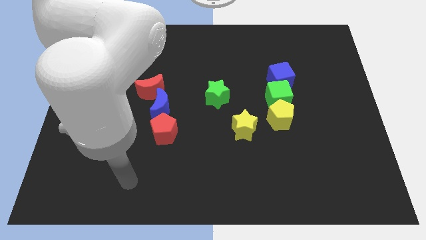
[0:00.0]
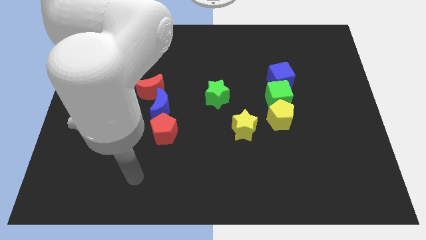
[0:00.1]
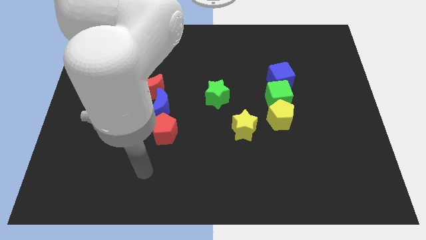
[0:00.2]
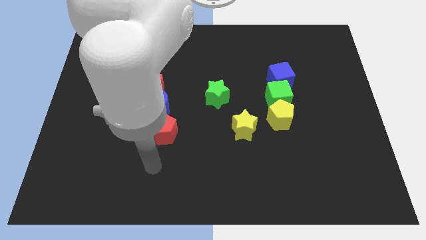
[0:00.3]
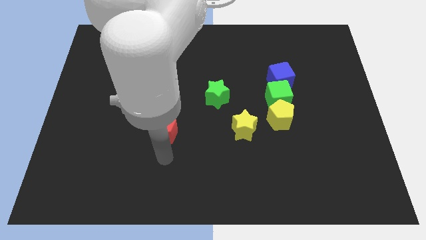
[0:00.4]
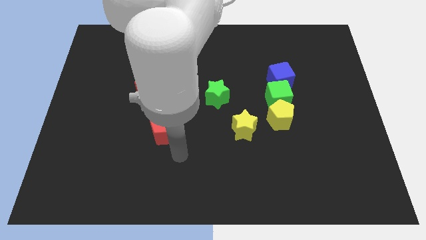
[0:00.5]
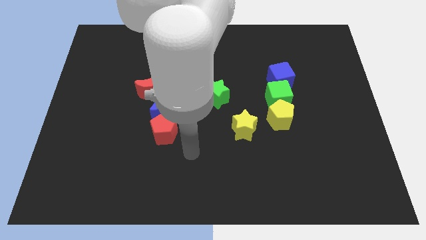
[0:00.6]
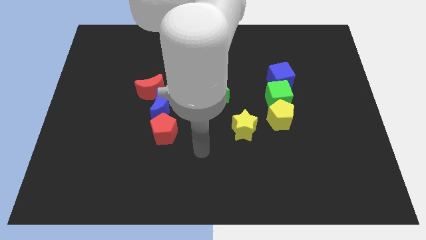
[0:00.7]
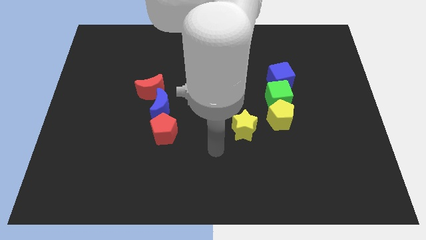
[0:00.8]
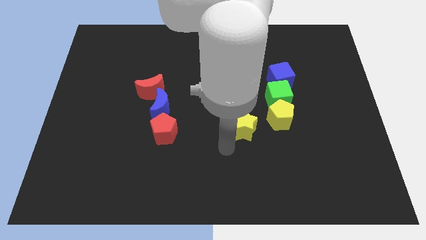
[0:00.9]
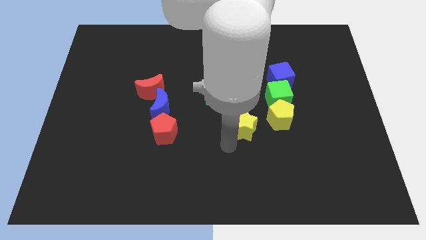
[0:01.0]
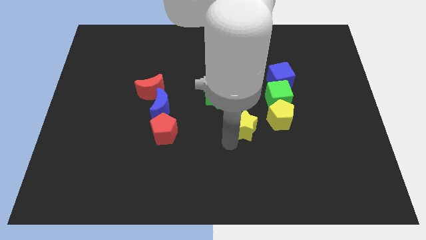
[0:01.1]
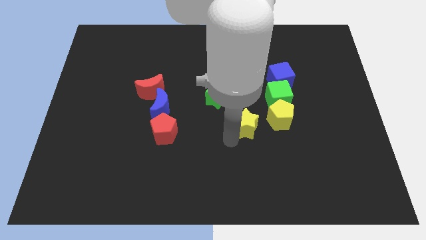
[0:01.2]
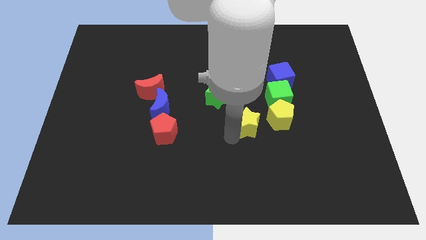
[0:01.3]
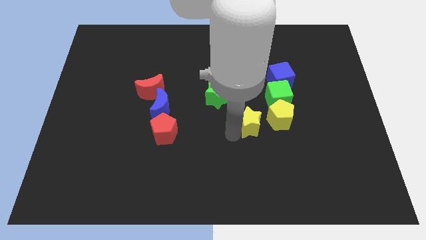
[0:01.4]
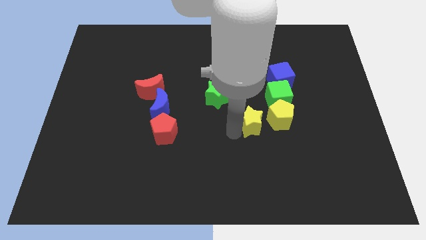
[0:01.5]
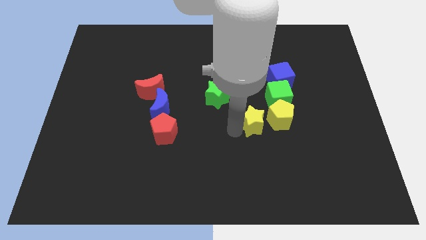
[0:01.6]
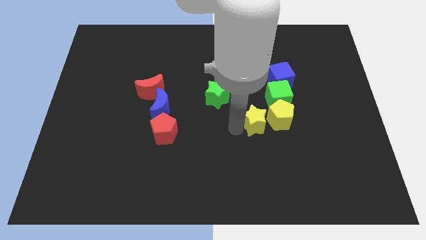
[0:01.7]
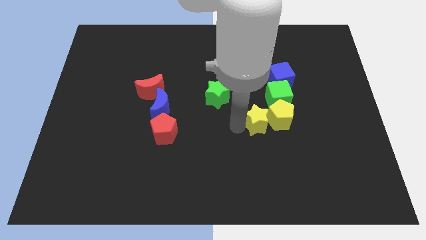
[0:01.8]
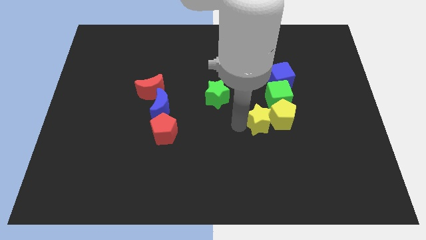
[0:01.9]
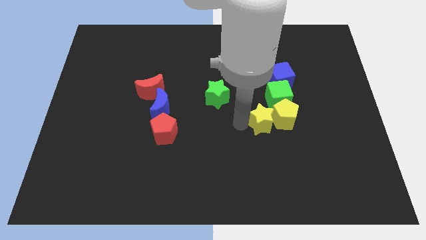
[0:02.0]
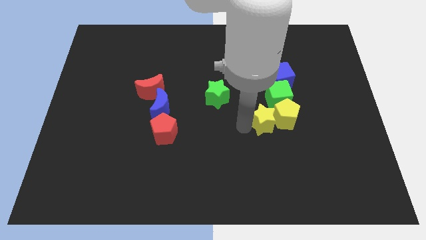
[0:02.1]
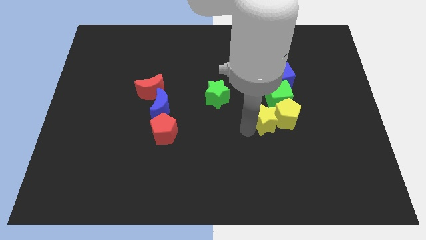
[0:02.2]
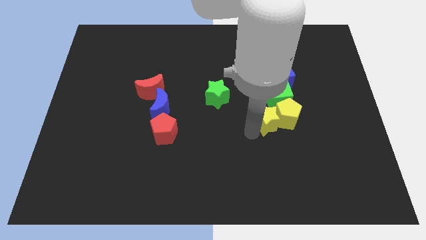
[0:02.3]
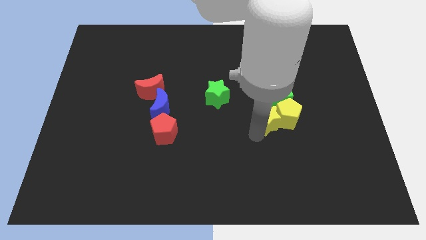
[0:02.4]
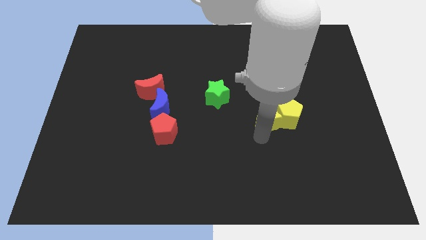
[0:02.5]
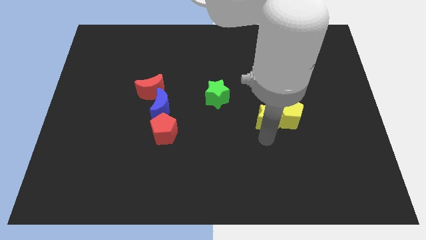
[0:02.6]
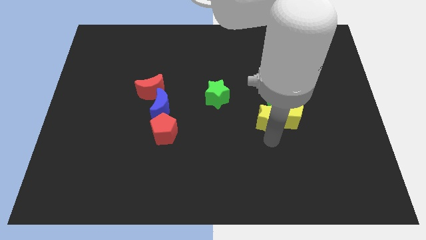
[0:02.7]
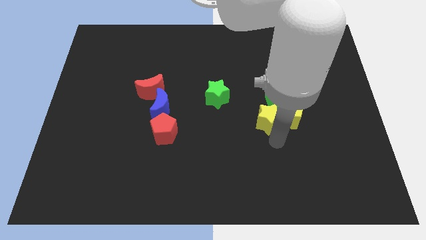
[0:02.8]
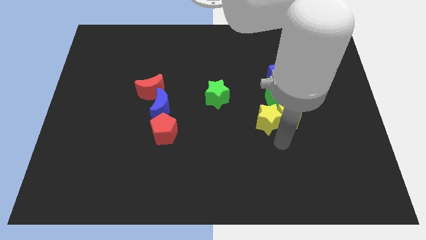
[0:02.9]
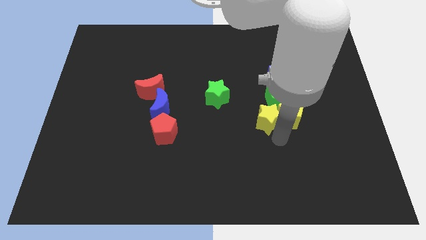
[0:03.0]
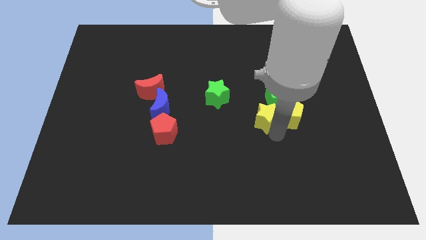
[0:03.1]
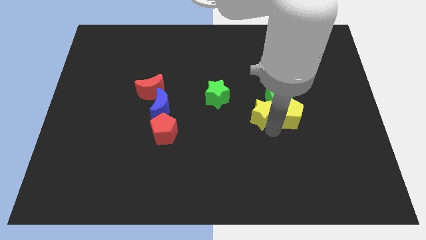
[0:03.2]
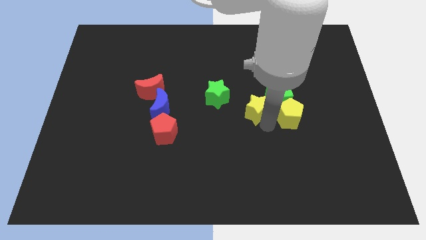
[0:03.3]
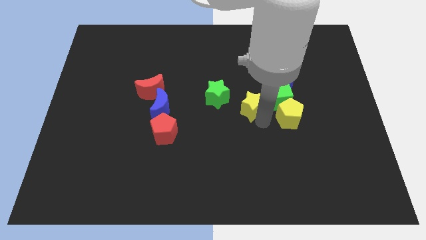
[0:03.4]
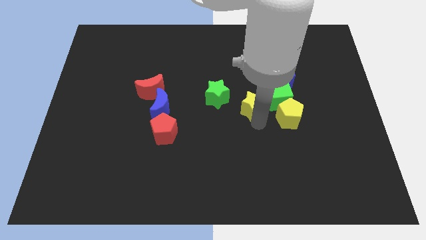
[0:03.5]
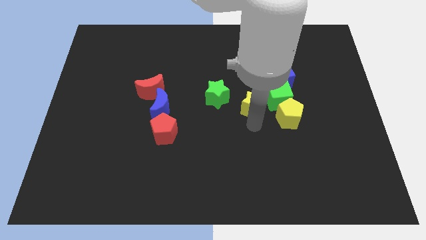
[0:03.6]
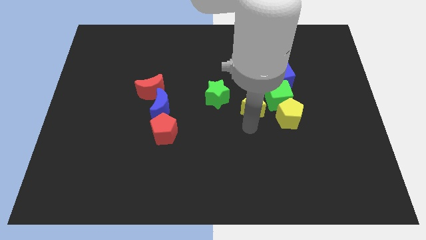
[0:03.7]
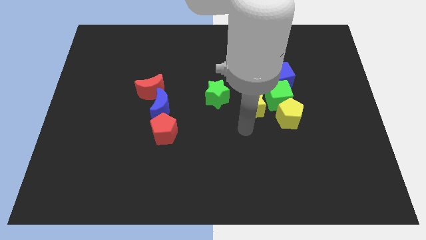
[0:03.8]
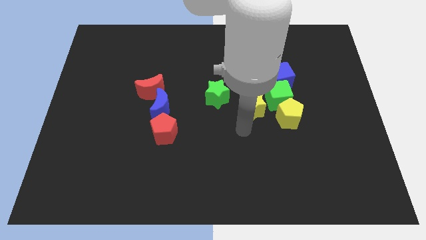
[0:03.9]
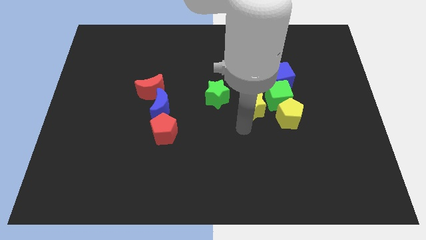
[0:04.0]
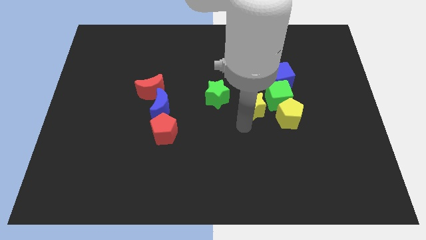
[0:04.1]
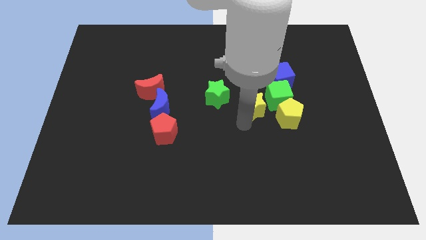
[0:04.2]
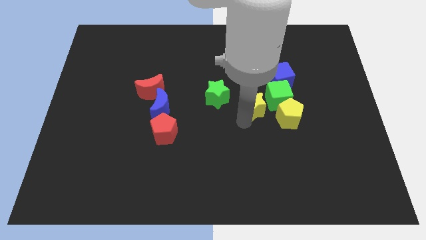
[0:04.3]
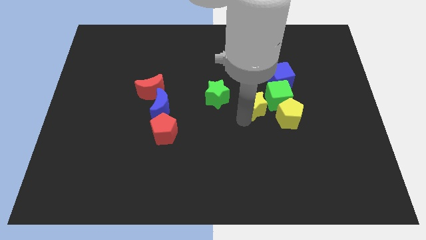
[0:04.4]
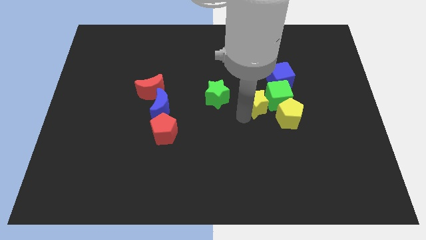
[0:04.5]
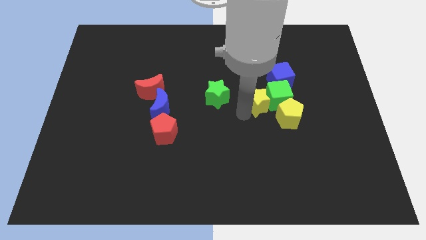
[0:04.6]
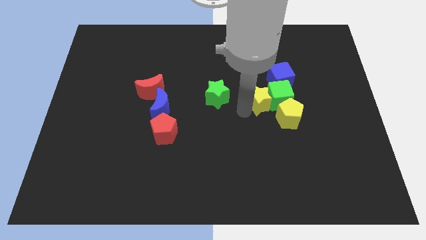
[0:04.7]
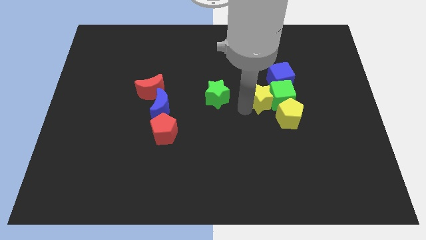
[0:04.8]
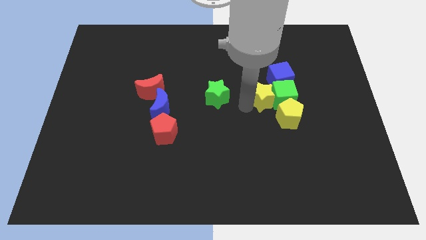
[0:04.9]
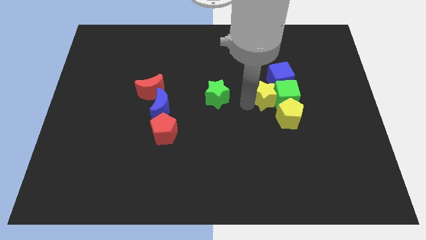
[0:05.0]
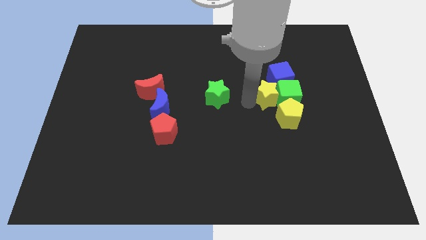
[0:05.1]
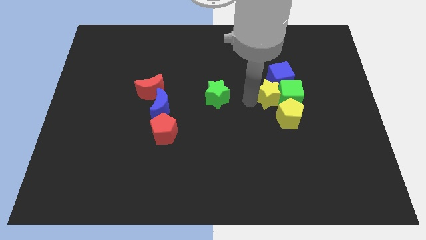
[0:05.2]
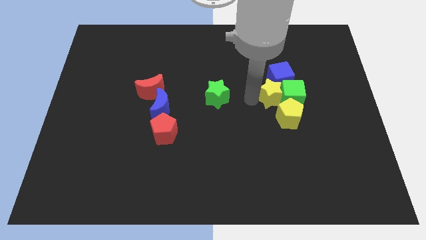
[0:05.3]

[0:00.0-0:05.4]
move the yellow star next to the blue cube

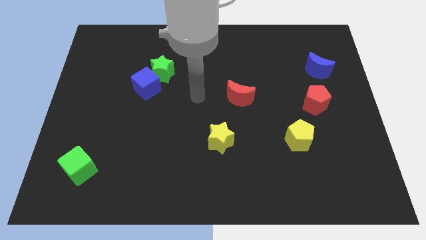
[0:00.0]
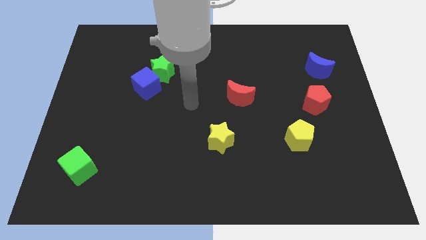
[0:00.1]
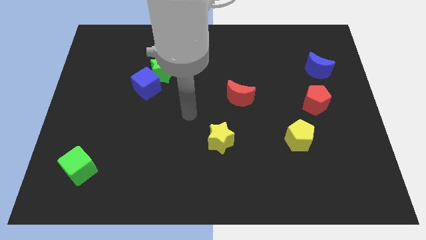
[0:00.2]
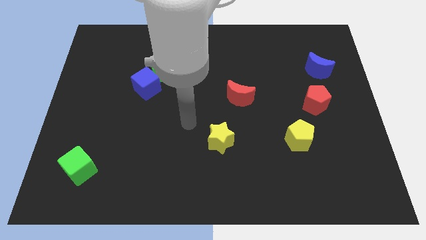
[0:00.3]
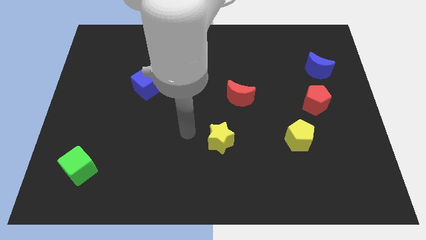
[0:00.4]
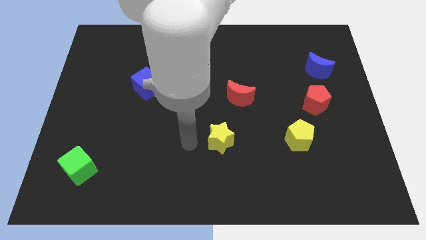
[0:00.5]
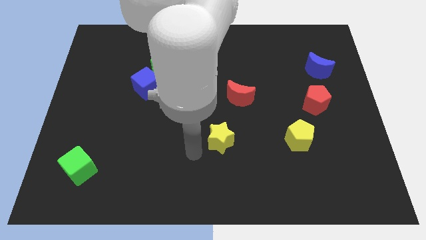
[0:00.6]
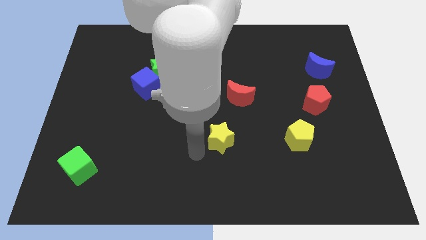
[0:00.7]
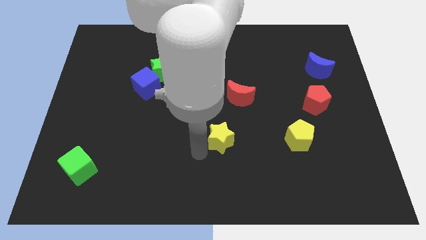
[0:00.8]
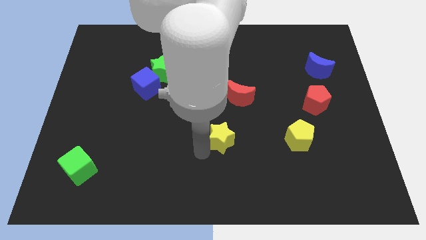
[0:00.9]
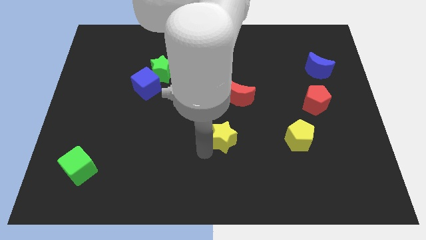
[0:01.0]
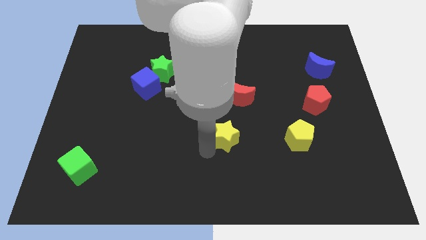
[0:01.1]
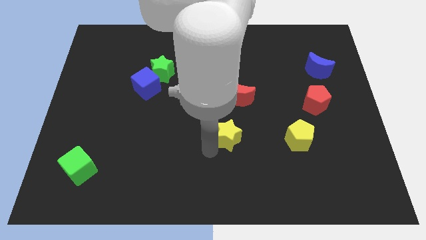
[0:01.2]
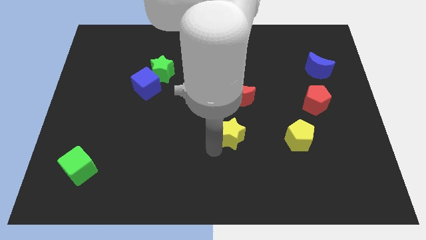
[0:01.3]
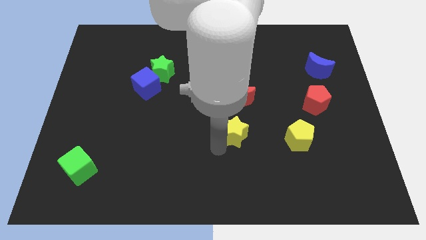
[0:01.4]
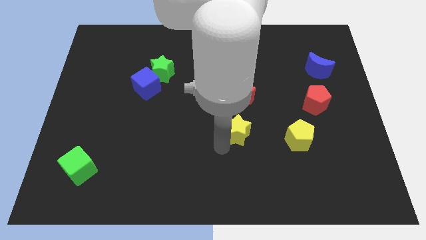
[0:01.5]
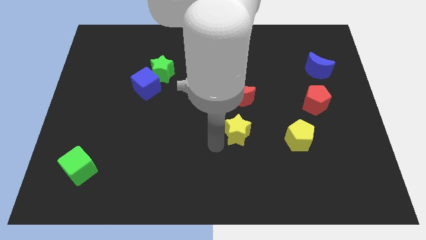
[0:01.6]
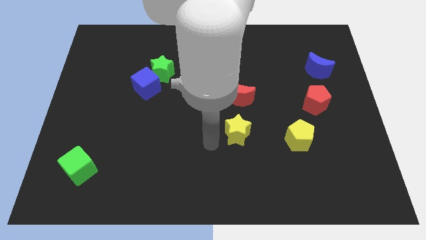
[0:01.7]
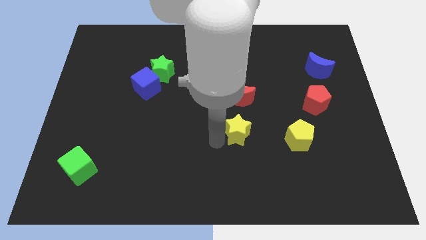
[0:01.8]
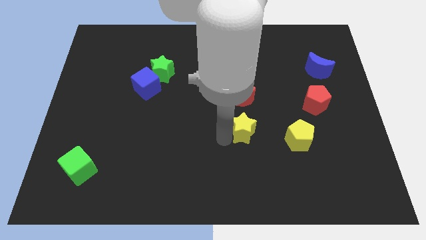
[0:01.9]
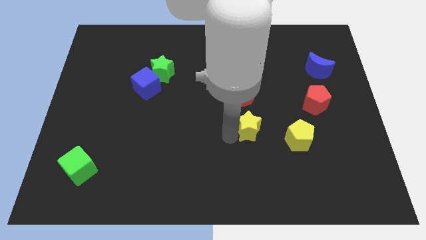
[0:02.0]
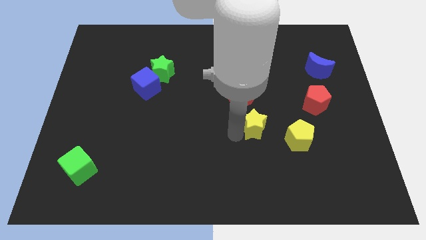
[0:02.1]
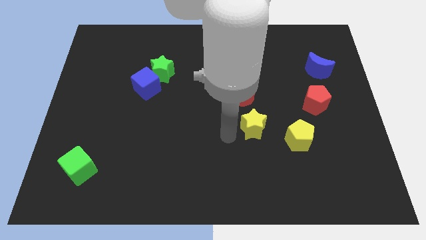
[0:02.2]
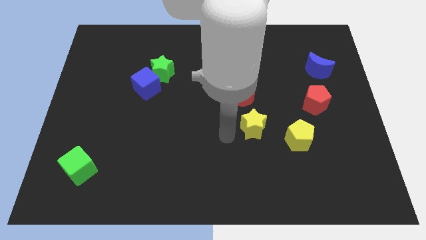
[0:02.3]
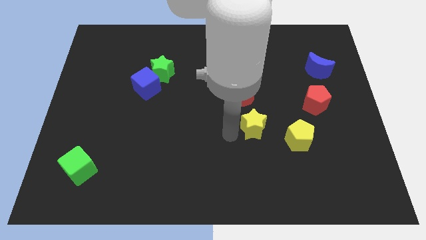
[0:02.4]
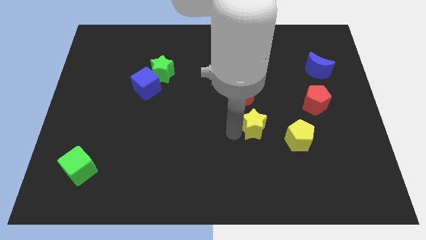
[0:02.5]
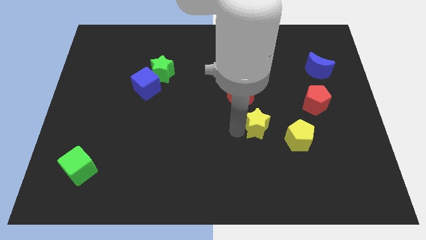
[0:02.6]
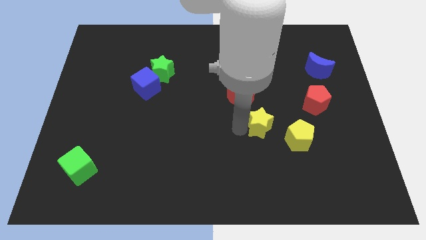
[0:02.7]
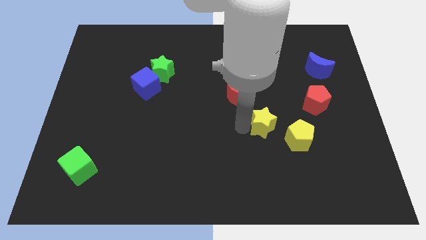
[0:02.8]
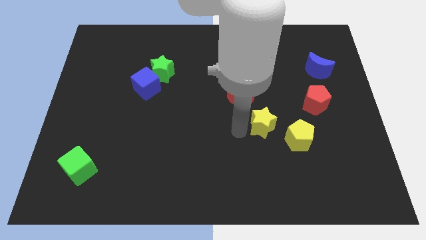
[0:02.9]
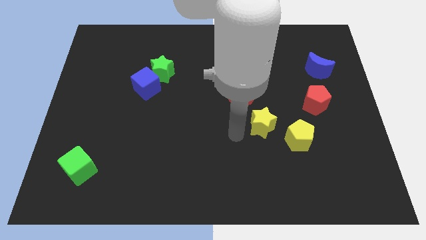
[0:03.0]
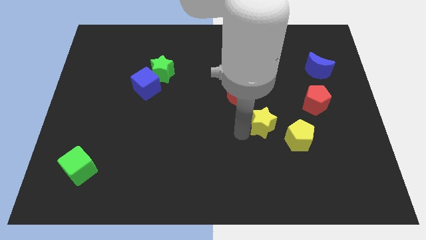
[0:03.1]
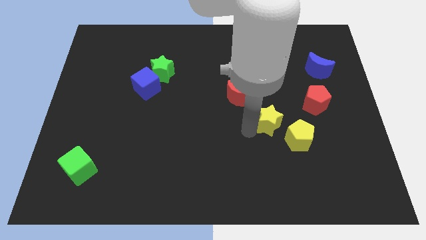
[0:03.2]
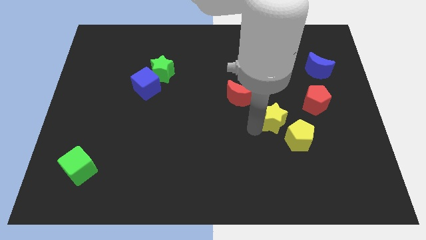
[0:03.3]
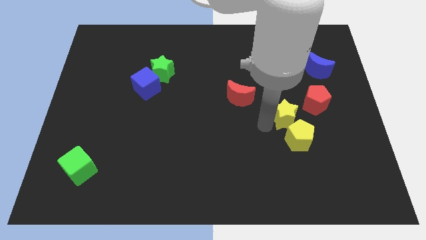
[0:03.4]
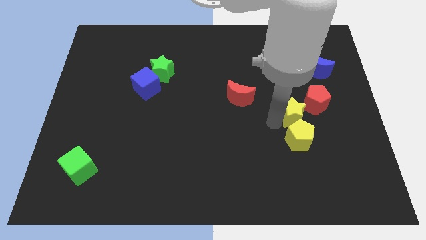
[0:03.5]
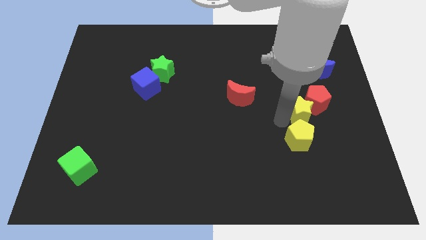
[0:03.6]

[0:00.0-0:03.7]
push the yellow star close to the red pentagon
